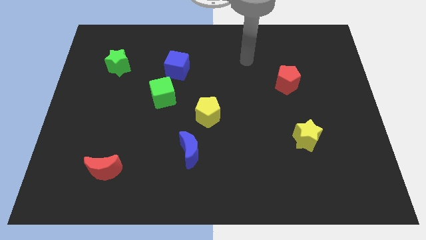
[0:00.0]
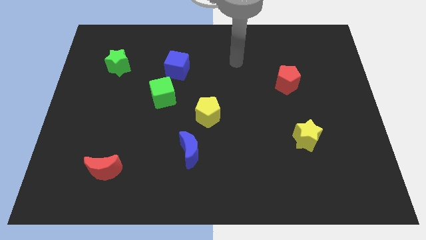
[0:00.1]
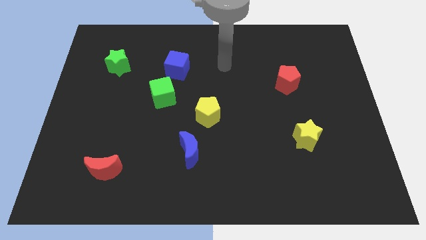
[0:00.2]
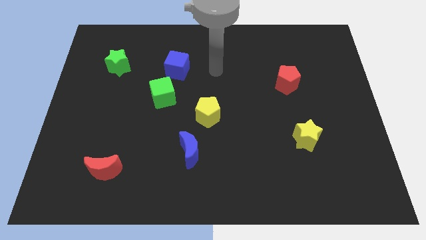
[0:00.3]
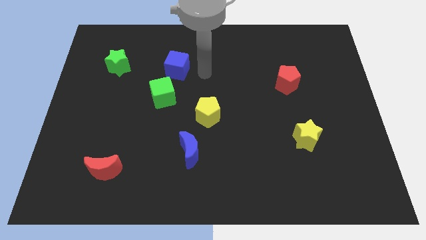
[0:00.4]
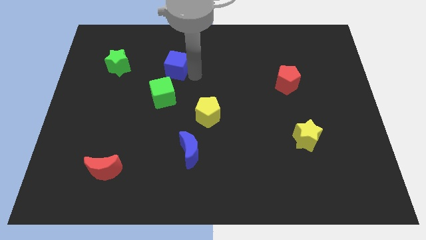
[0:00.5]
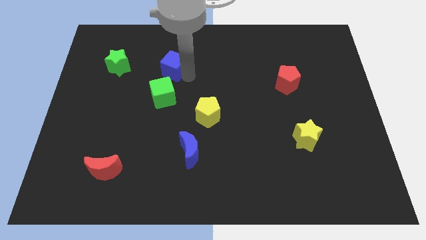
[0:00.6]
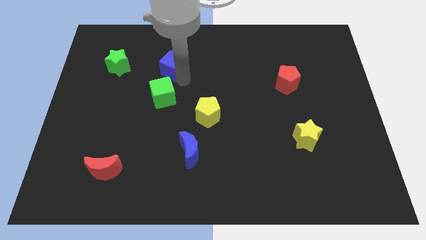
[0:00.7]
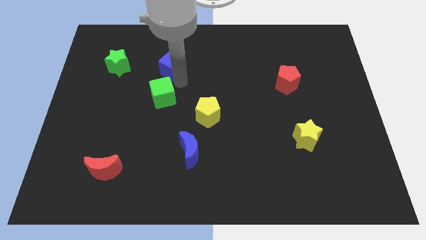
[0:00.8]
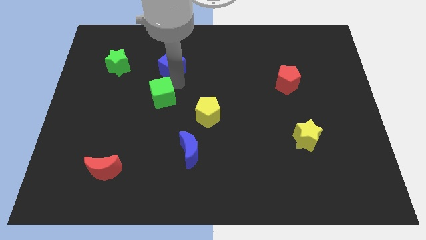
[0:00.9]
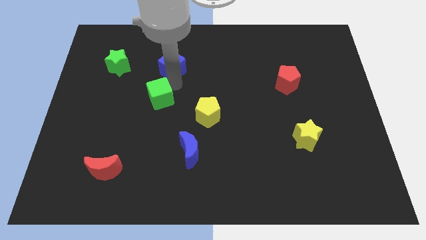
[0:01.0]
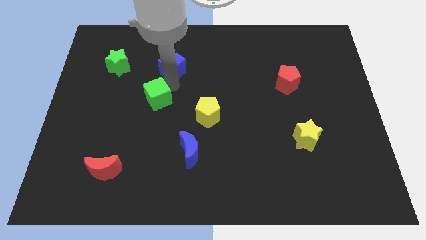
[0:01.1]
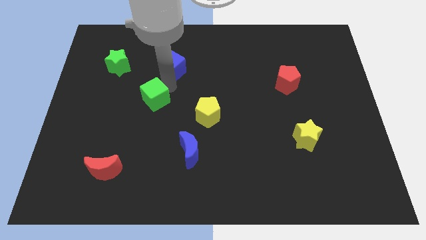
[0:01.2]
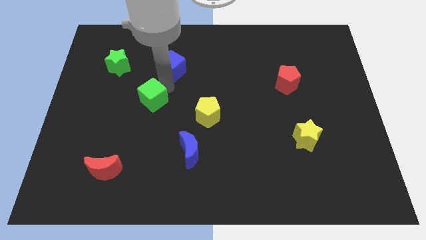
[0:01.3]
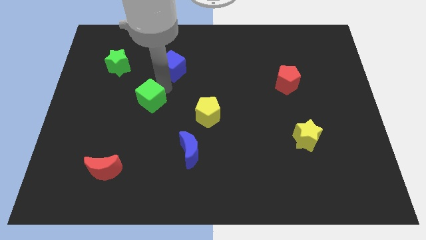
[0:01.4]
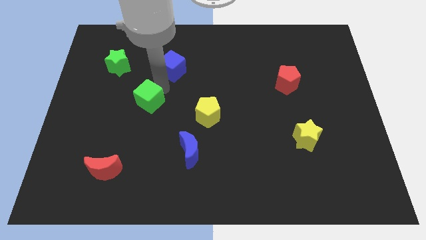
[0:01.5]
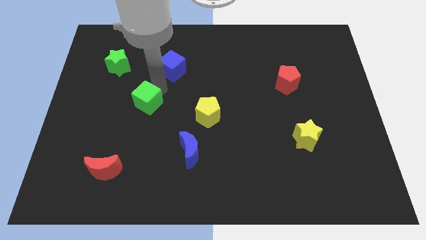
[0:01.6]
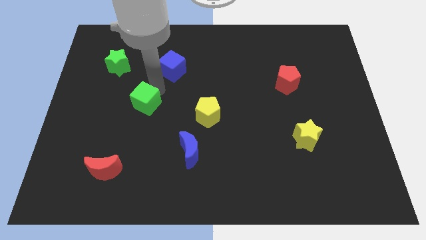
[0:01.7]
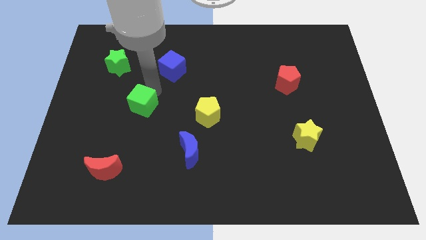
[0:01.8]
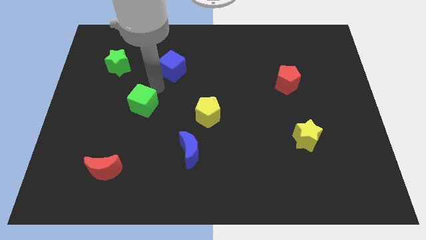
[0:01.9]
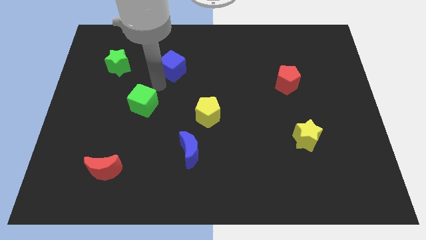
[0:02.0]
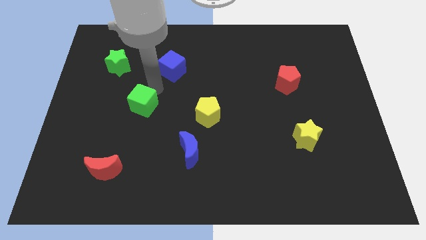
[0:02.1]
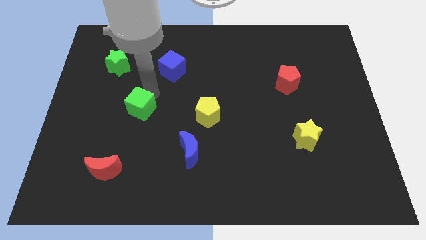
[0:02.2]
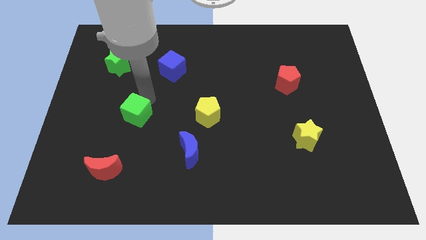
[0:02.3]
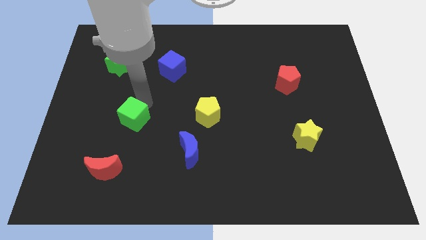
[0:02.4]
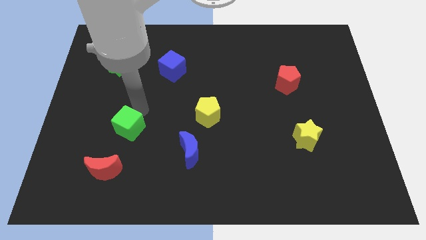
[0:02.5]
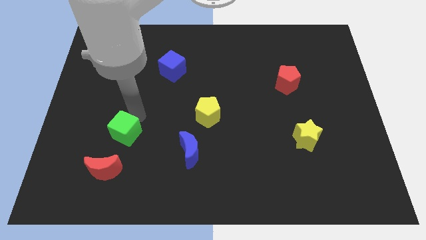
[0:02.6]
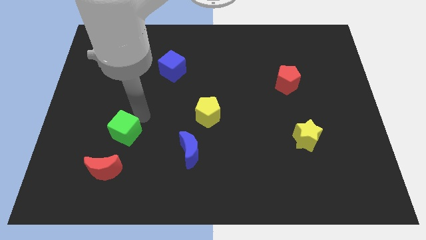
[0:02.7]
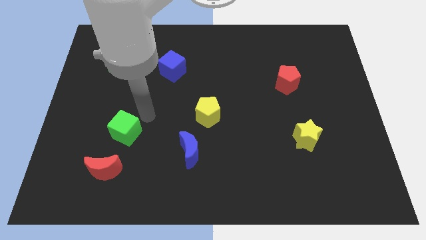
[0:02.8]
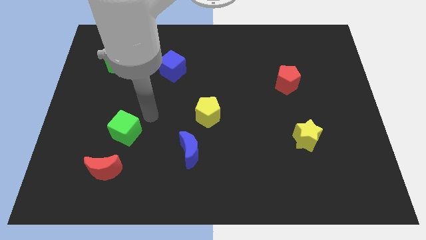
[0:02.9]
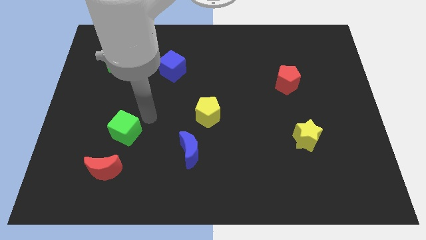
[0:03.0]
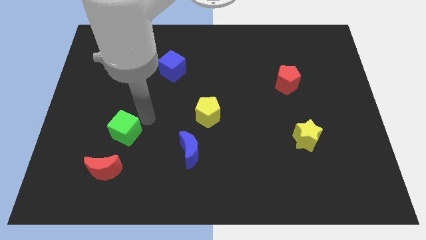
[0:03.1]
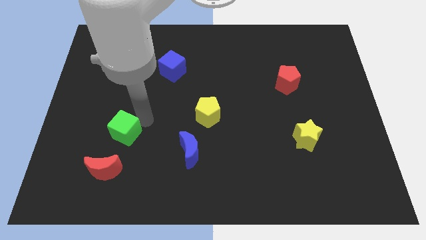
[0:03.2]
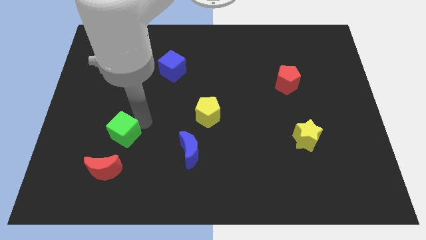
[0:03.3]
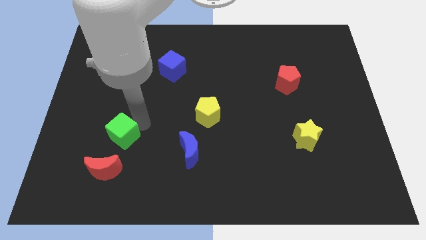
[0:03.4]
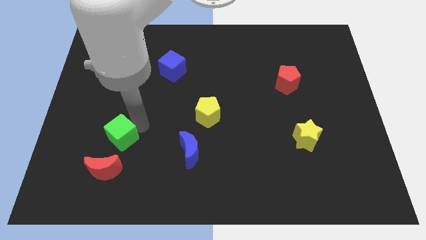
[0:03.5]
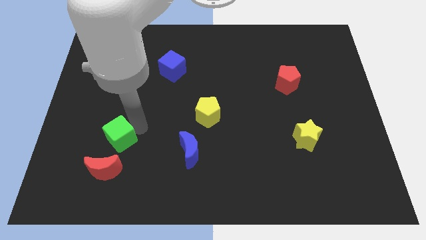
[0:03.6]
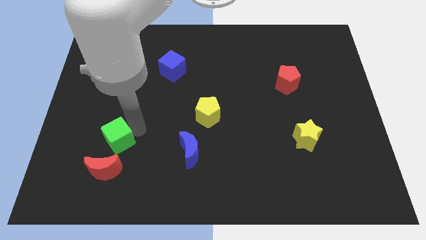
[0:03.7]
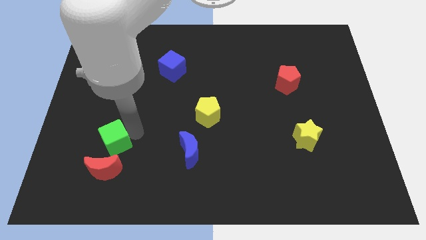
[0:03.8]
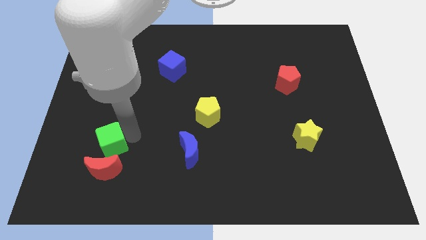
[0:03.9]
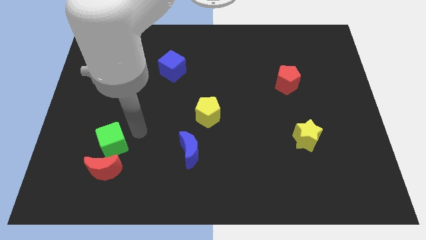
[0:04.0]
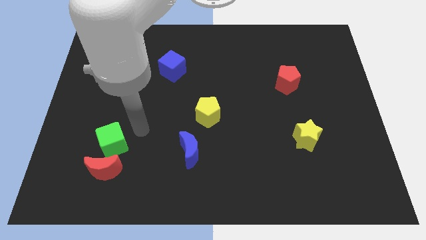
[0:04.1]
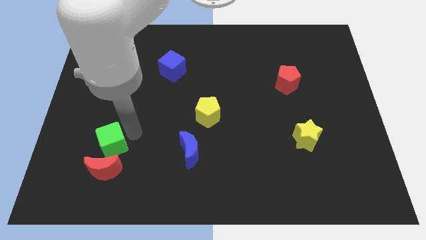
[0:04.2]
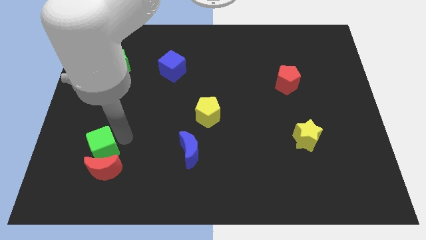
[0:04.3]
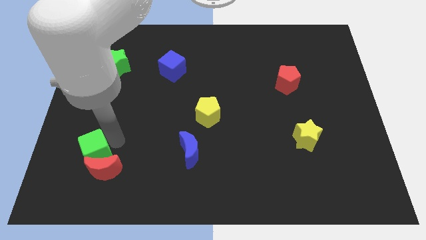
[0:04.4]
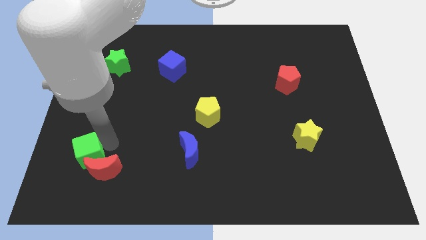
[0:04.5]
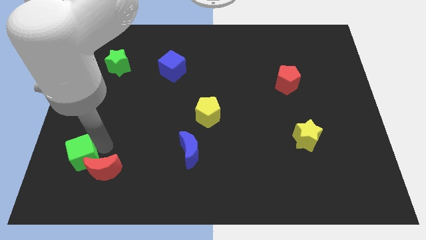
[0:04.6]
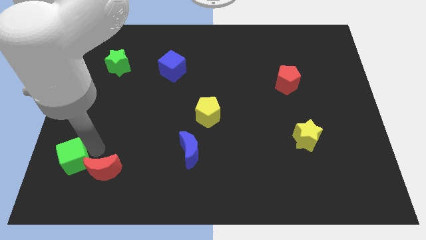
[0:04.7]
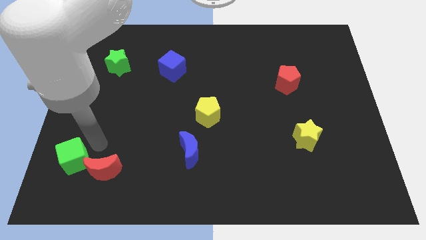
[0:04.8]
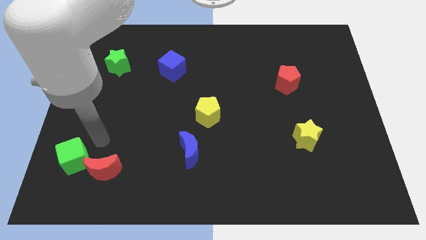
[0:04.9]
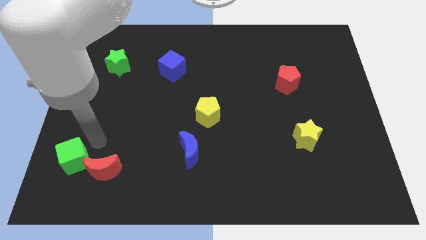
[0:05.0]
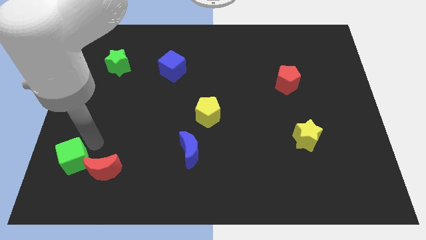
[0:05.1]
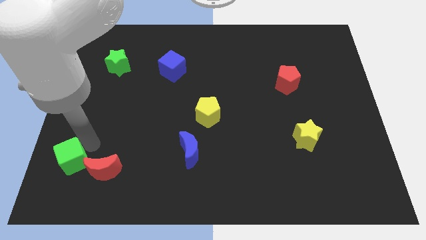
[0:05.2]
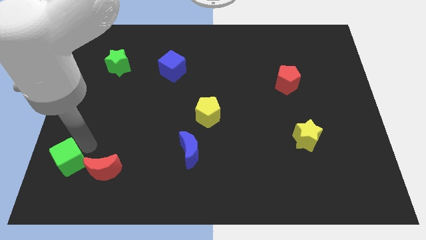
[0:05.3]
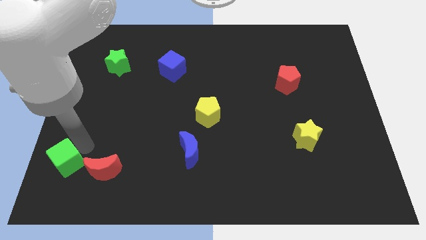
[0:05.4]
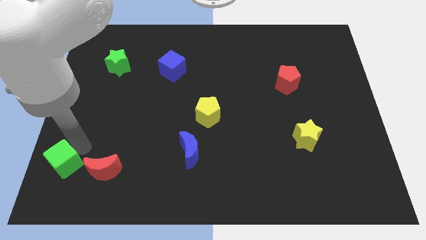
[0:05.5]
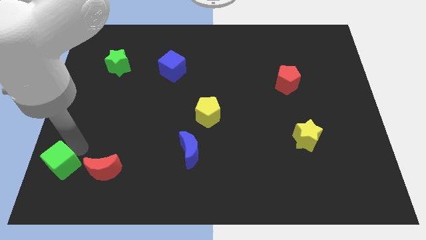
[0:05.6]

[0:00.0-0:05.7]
slide the green cube to the lower left corner
